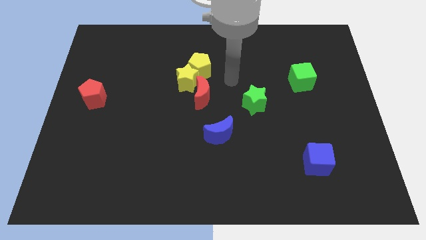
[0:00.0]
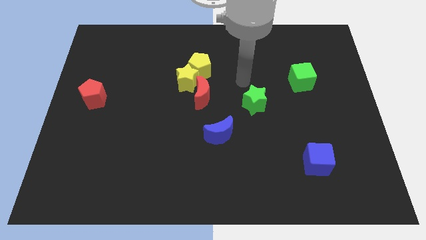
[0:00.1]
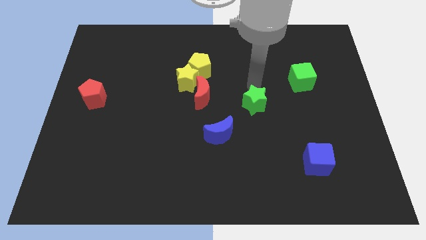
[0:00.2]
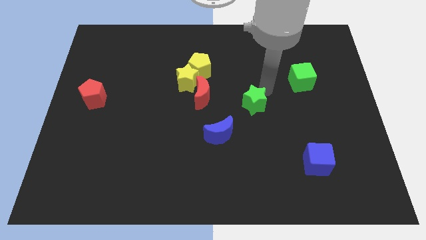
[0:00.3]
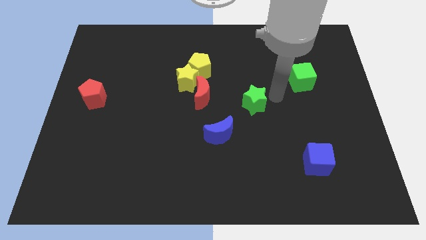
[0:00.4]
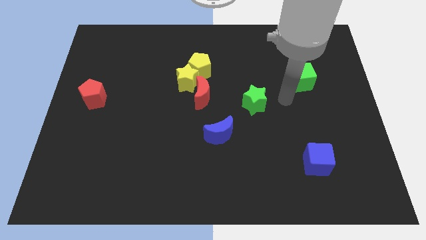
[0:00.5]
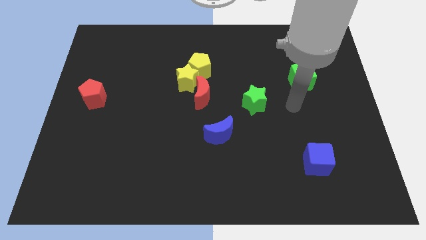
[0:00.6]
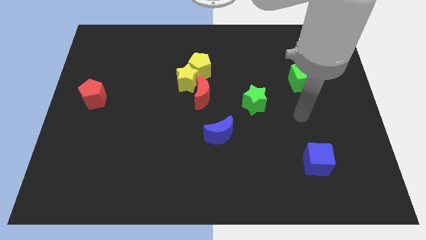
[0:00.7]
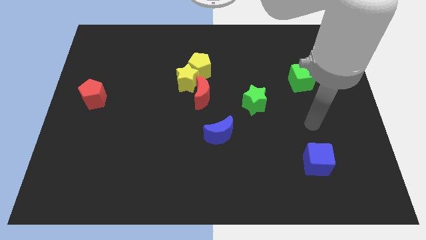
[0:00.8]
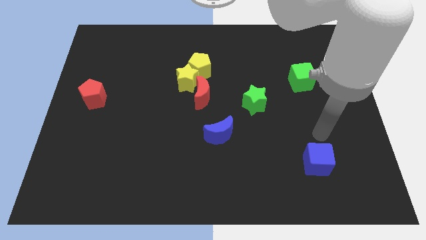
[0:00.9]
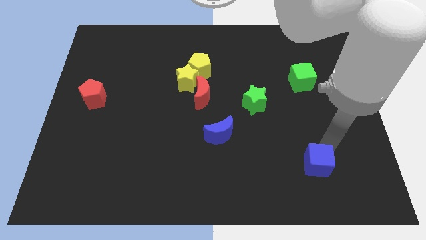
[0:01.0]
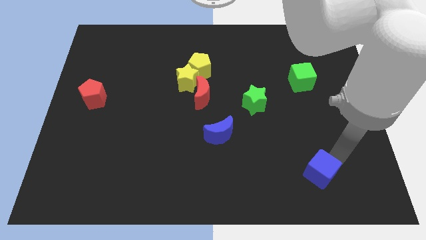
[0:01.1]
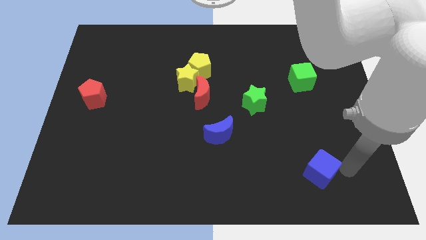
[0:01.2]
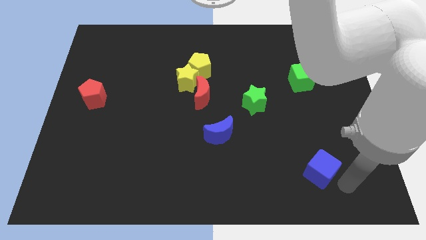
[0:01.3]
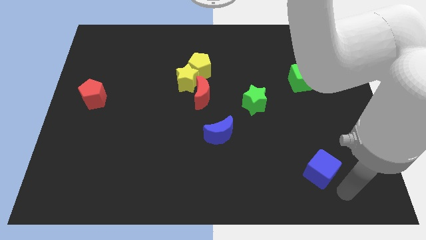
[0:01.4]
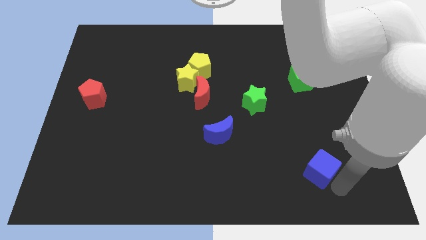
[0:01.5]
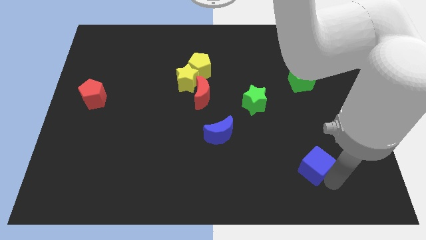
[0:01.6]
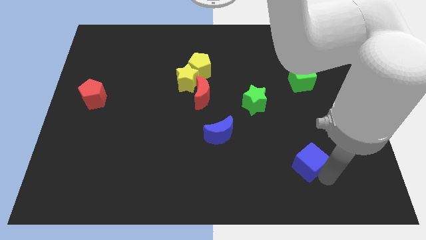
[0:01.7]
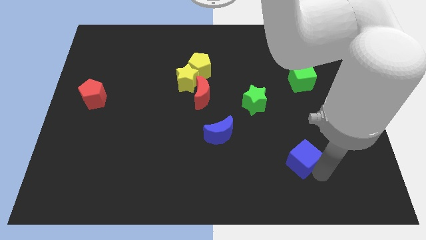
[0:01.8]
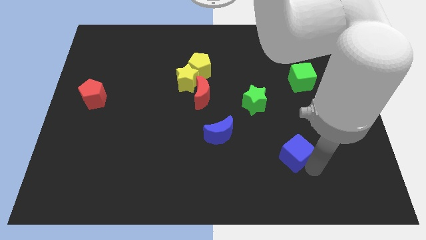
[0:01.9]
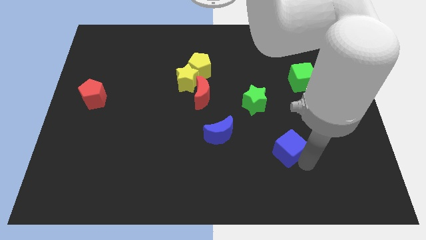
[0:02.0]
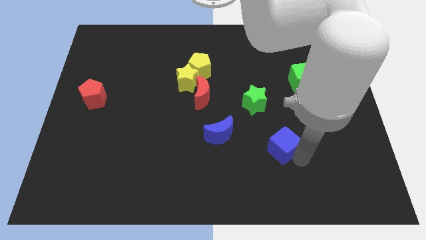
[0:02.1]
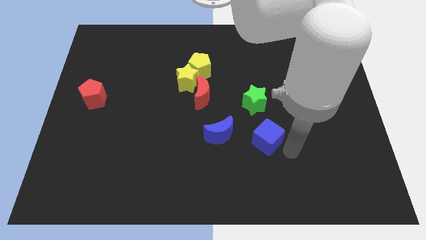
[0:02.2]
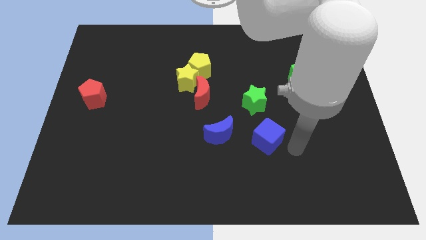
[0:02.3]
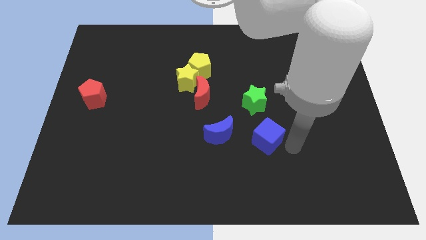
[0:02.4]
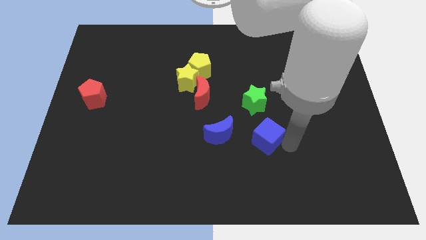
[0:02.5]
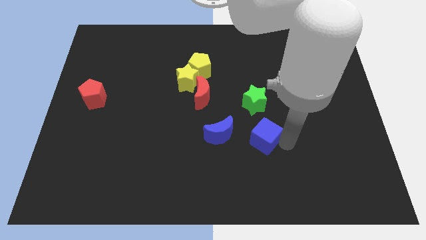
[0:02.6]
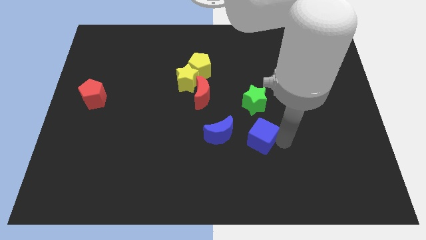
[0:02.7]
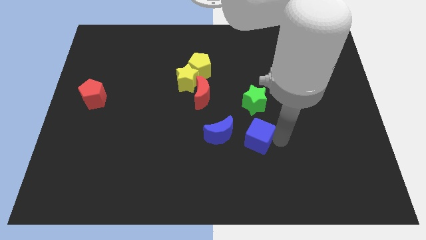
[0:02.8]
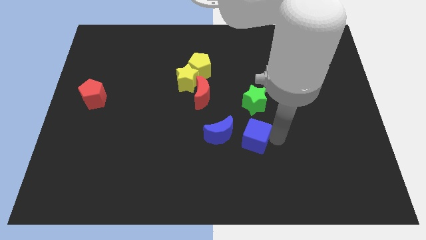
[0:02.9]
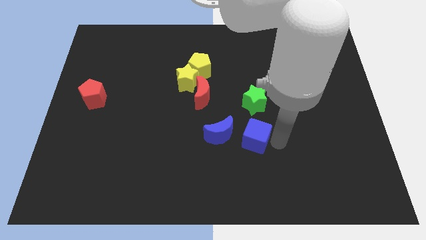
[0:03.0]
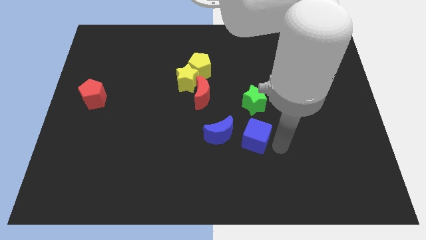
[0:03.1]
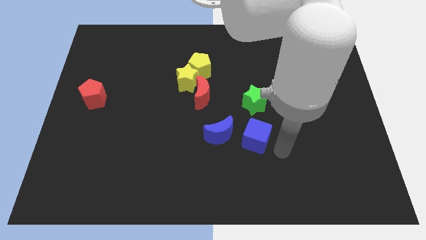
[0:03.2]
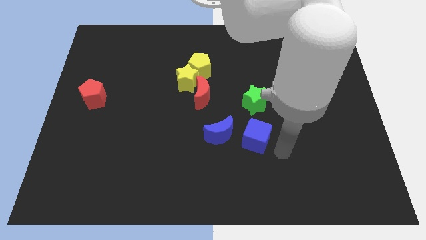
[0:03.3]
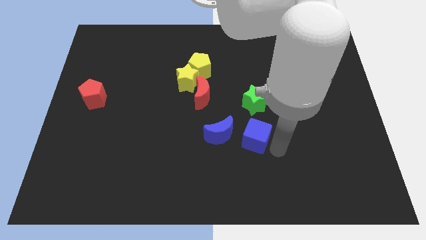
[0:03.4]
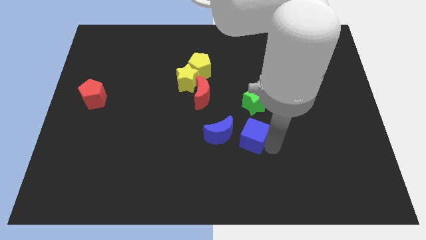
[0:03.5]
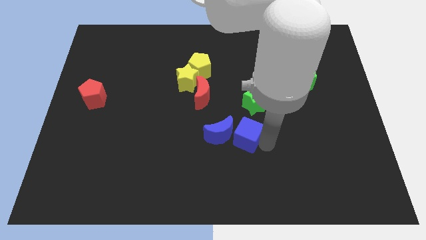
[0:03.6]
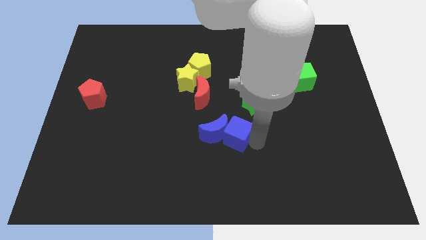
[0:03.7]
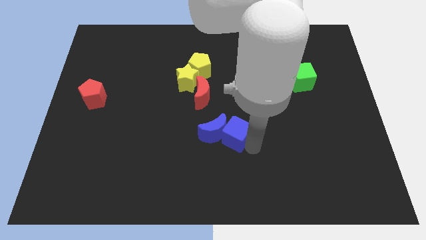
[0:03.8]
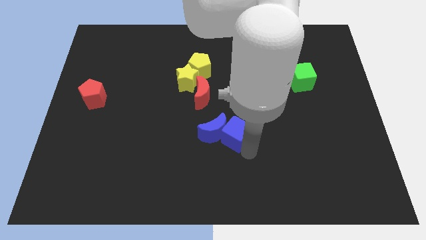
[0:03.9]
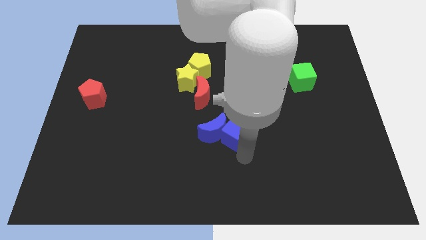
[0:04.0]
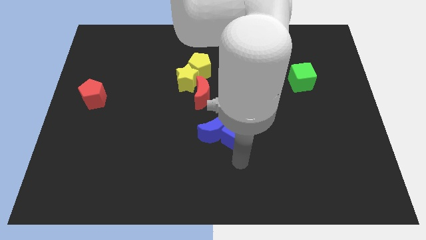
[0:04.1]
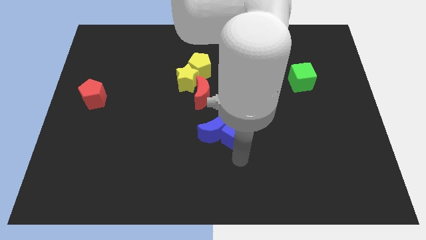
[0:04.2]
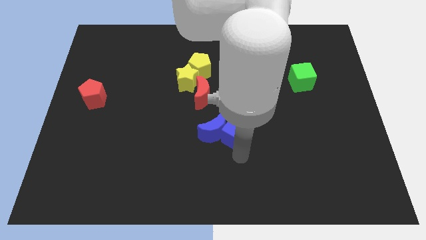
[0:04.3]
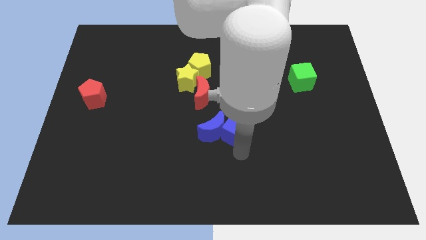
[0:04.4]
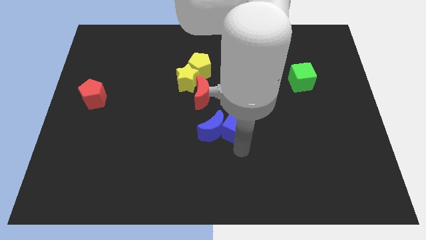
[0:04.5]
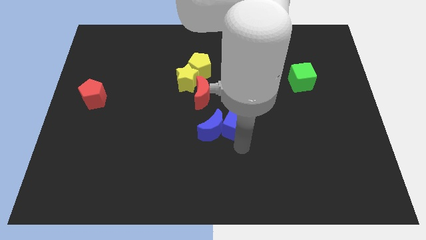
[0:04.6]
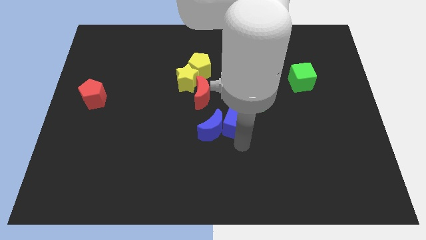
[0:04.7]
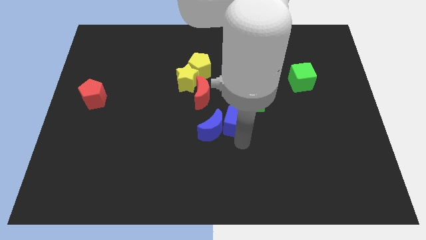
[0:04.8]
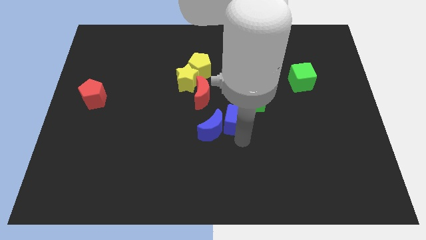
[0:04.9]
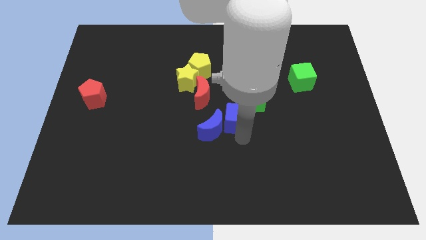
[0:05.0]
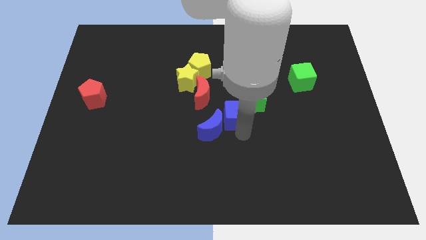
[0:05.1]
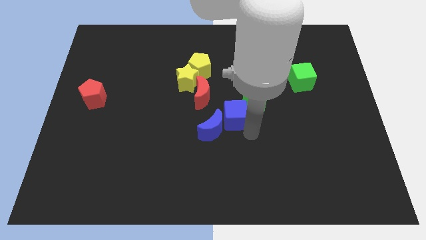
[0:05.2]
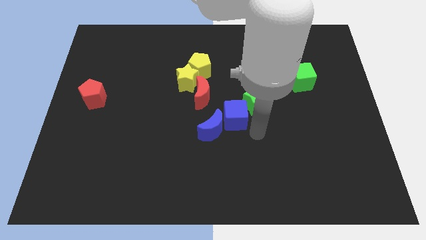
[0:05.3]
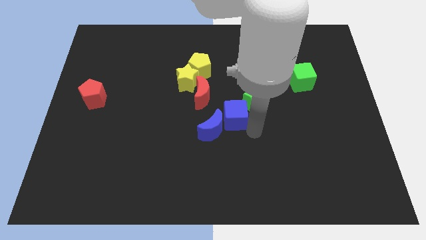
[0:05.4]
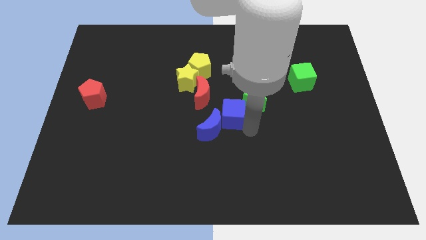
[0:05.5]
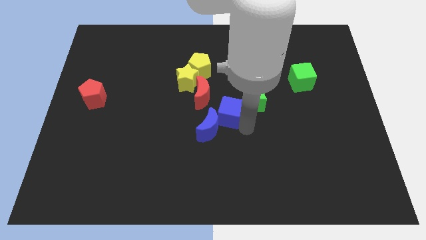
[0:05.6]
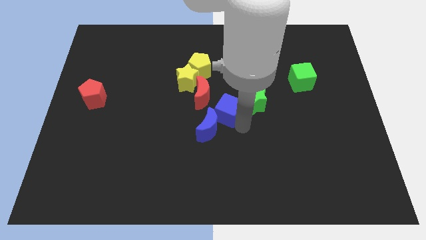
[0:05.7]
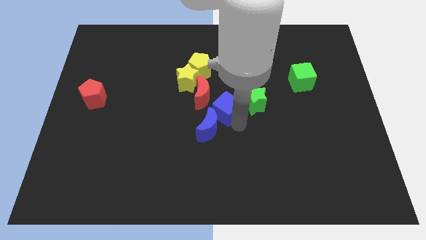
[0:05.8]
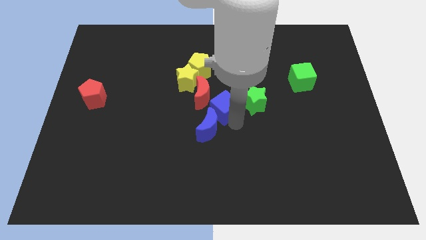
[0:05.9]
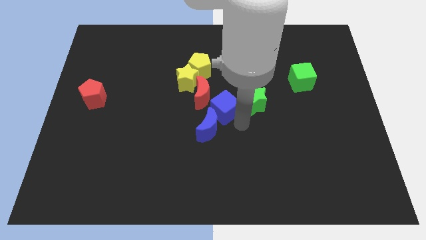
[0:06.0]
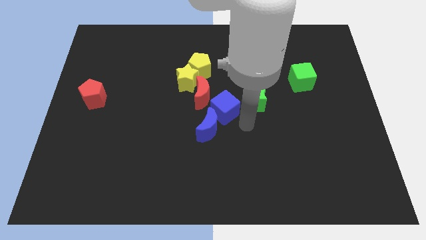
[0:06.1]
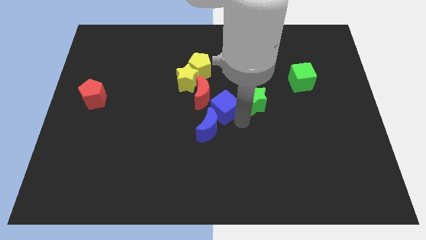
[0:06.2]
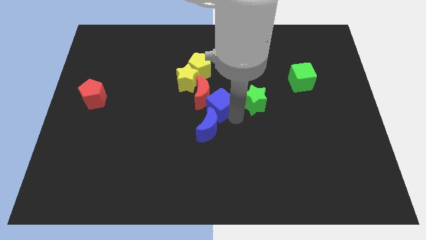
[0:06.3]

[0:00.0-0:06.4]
push the blue cube next to the red moon
